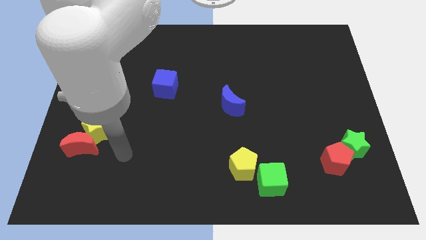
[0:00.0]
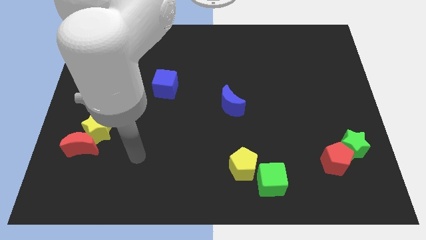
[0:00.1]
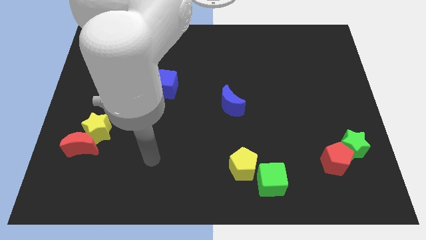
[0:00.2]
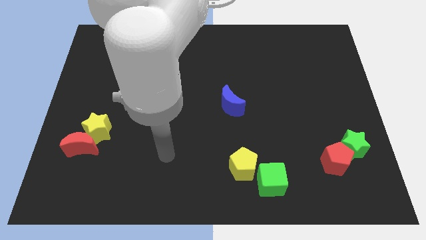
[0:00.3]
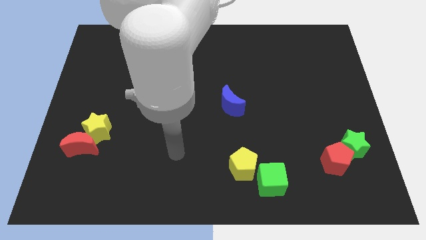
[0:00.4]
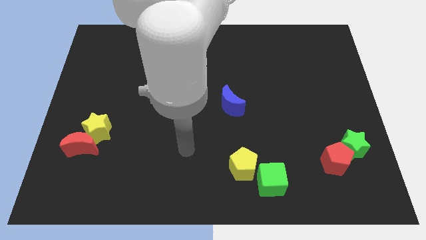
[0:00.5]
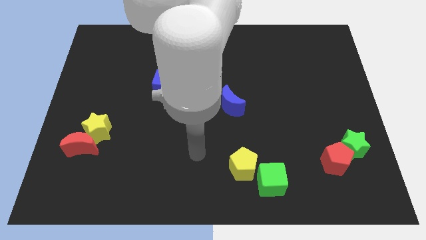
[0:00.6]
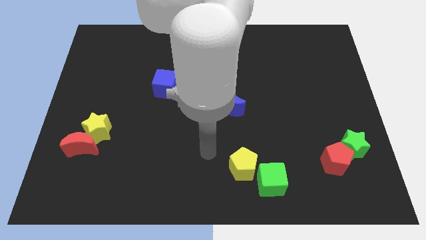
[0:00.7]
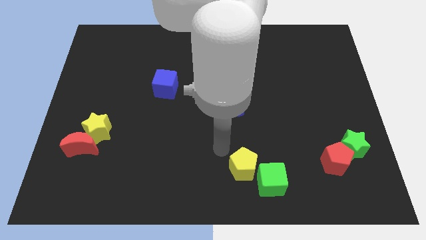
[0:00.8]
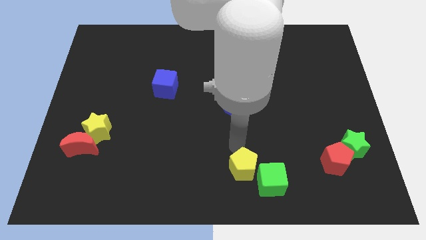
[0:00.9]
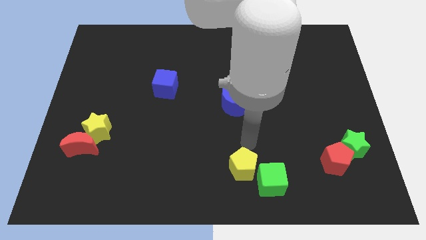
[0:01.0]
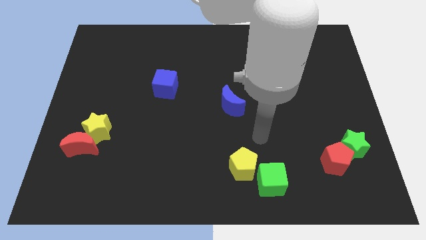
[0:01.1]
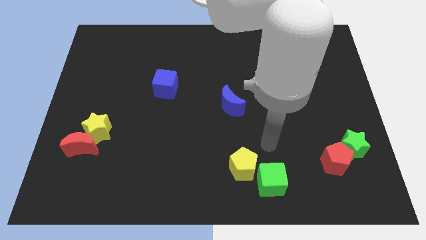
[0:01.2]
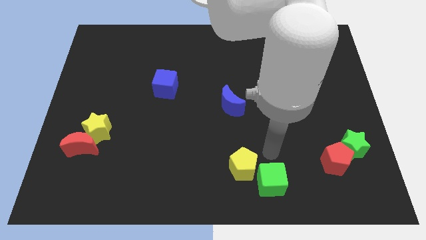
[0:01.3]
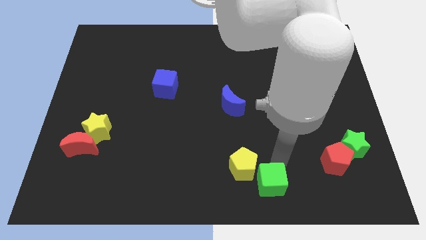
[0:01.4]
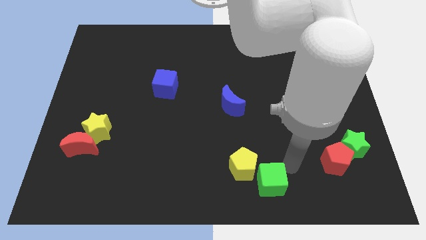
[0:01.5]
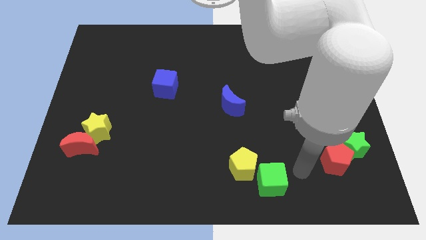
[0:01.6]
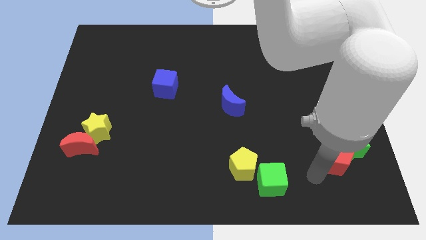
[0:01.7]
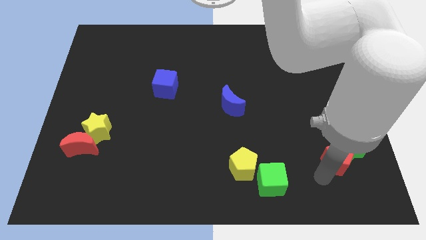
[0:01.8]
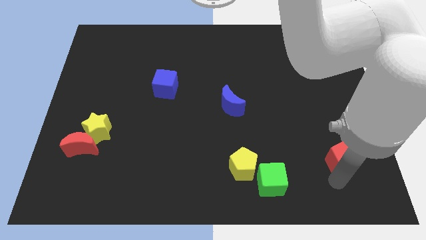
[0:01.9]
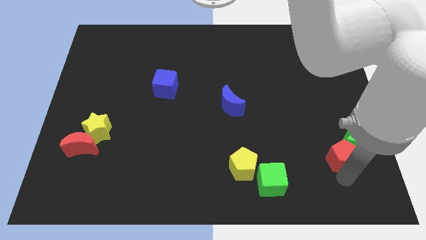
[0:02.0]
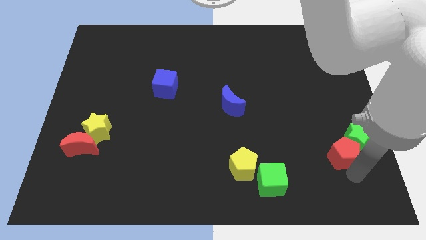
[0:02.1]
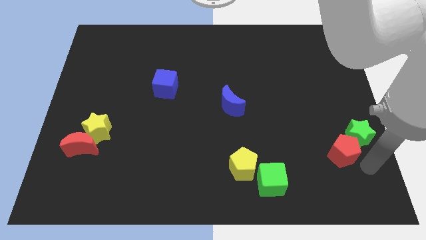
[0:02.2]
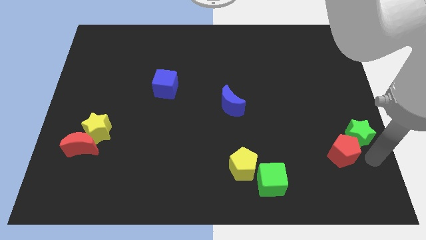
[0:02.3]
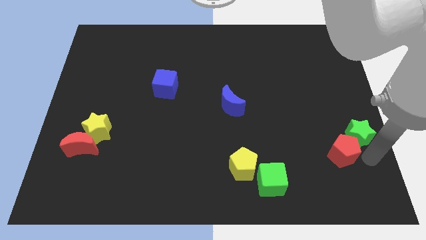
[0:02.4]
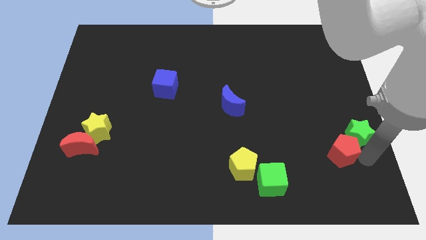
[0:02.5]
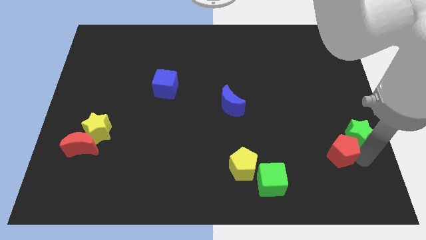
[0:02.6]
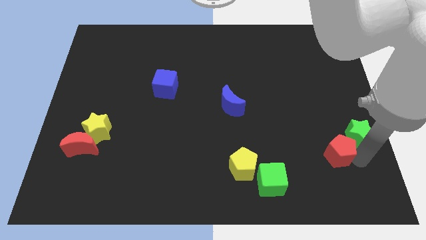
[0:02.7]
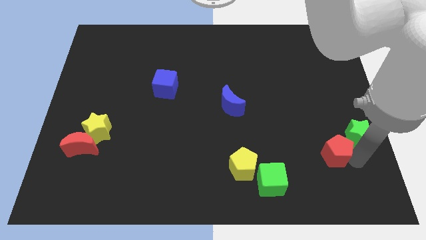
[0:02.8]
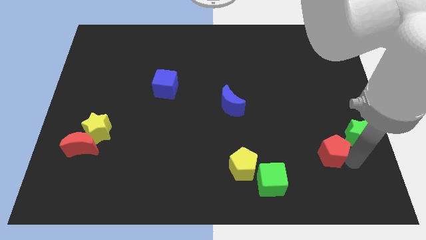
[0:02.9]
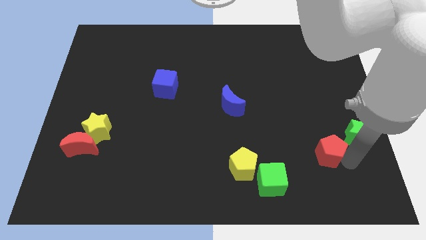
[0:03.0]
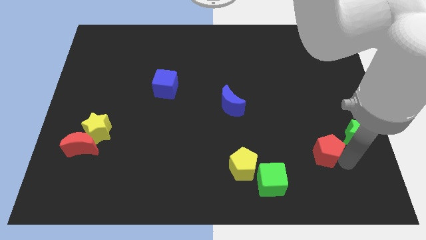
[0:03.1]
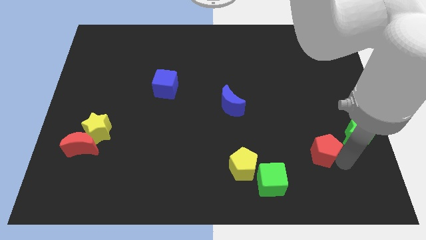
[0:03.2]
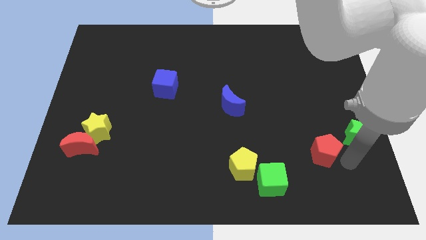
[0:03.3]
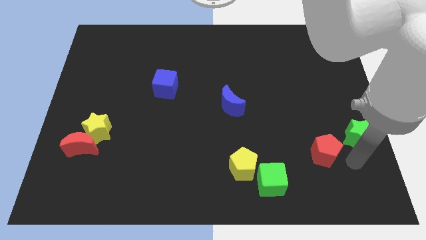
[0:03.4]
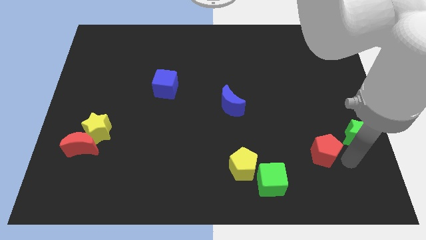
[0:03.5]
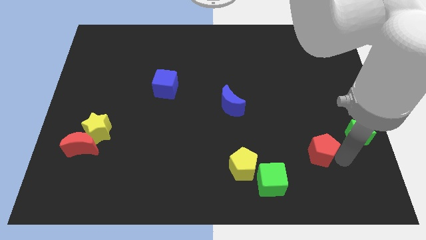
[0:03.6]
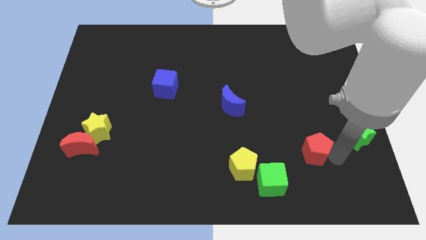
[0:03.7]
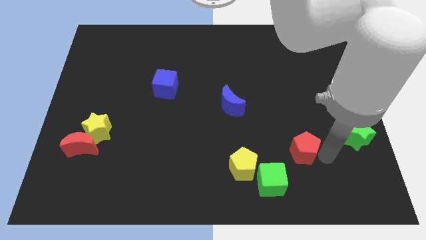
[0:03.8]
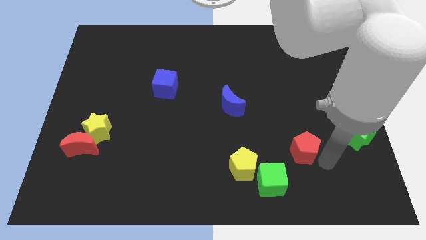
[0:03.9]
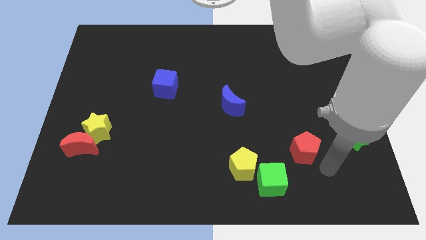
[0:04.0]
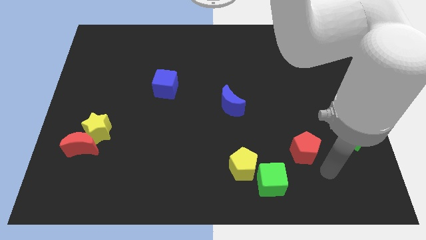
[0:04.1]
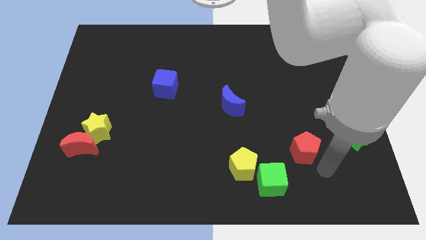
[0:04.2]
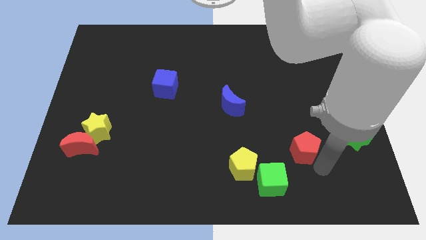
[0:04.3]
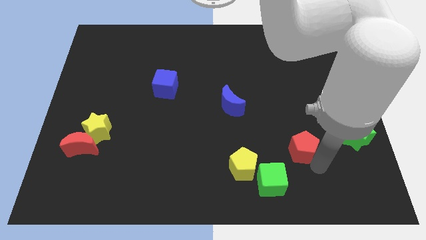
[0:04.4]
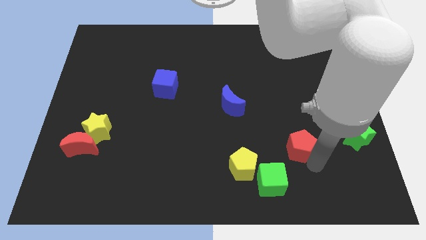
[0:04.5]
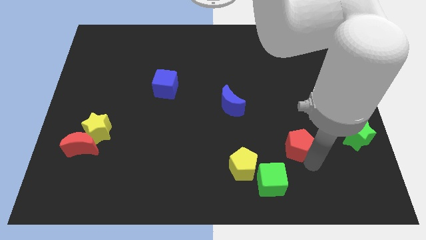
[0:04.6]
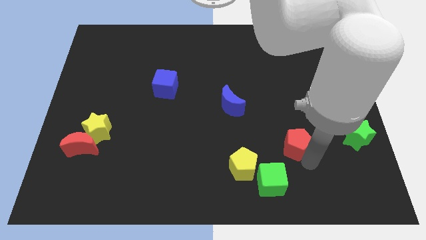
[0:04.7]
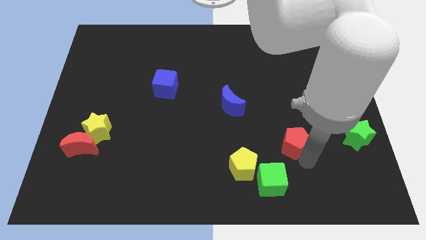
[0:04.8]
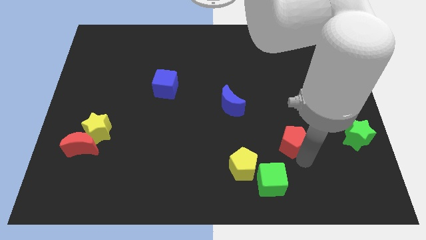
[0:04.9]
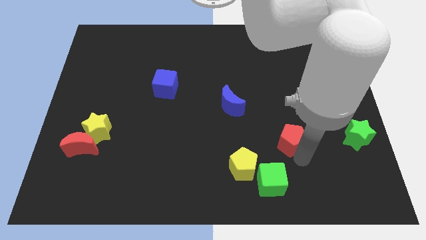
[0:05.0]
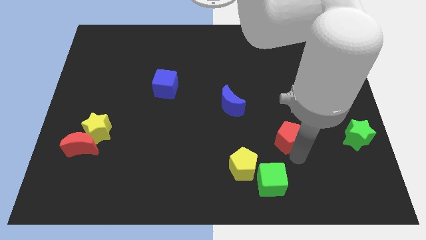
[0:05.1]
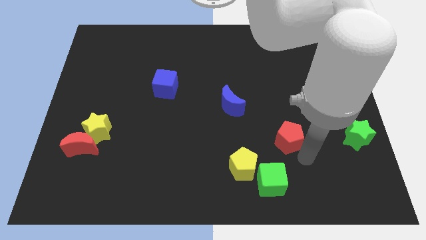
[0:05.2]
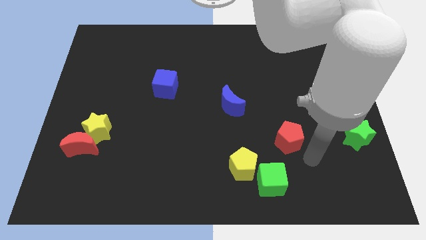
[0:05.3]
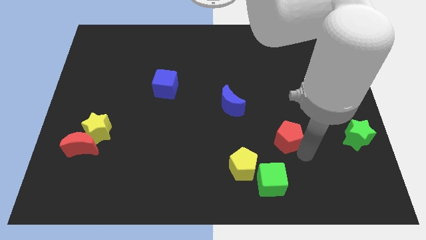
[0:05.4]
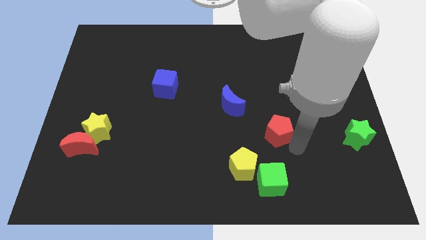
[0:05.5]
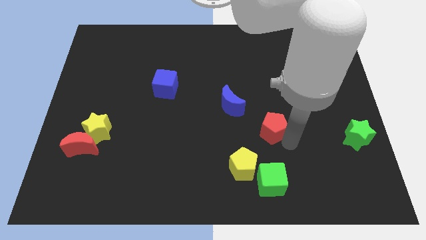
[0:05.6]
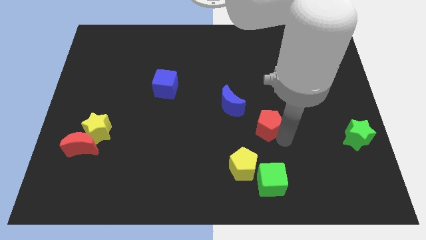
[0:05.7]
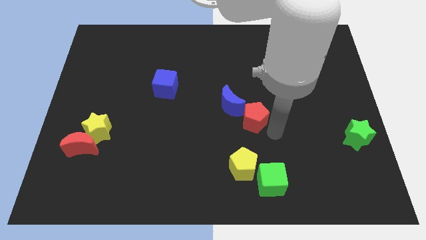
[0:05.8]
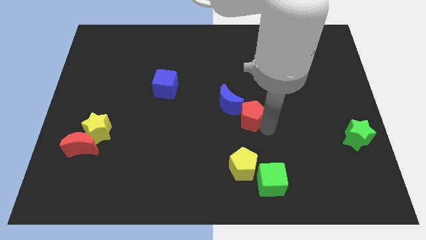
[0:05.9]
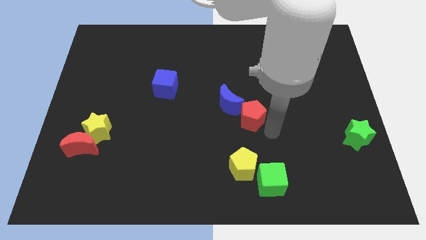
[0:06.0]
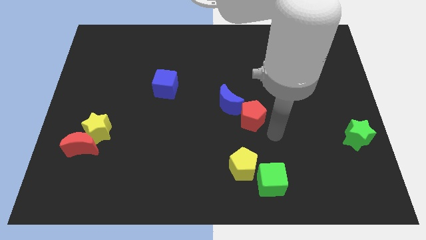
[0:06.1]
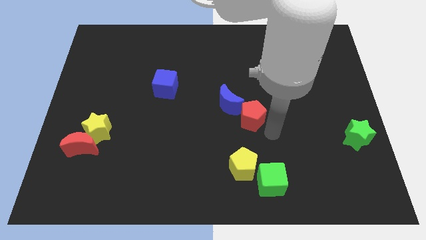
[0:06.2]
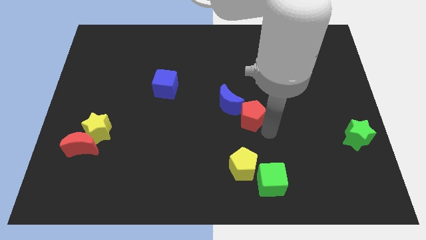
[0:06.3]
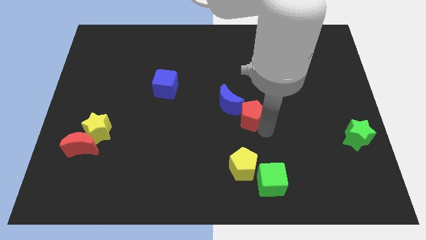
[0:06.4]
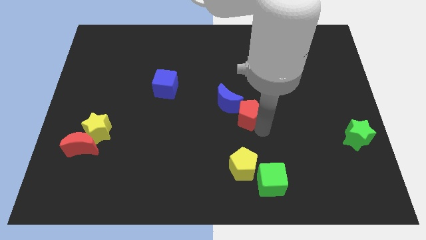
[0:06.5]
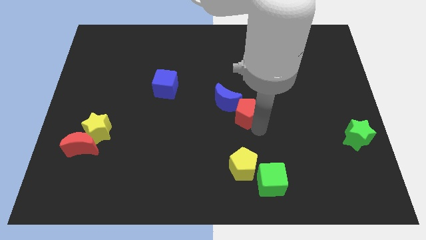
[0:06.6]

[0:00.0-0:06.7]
move the red pentagon to the blue moon
